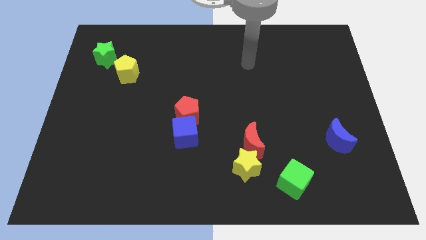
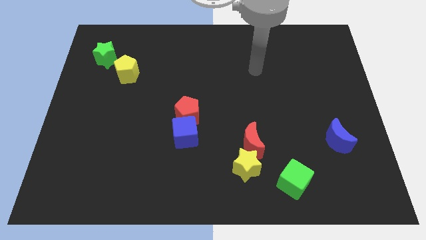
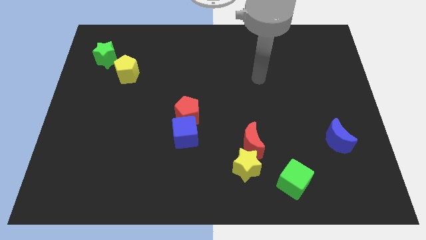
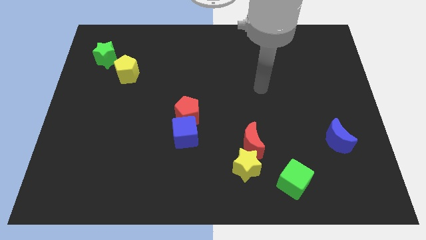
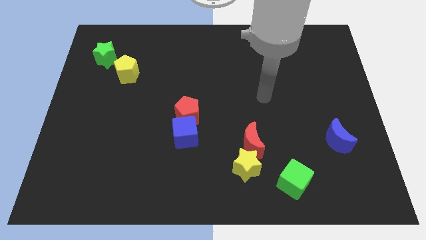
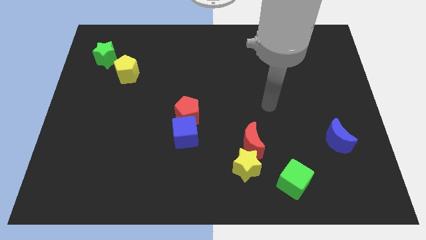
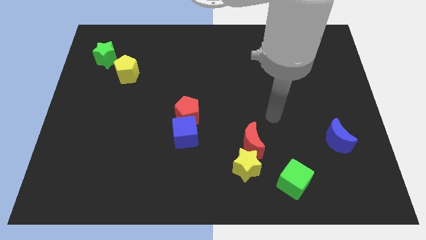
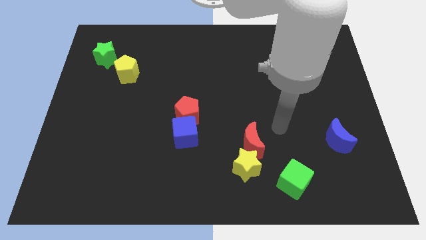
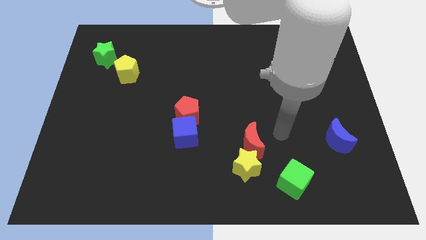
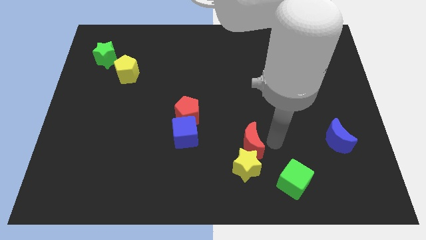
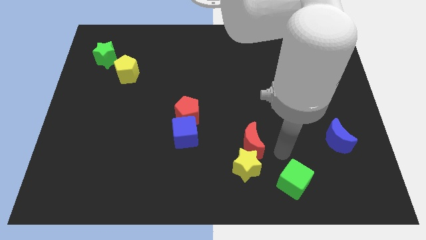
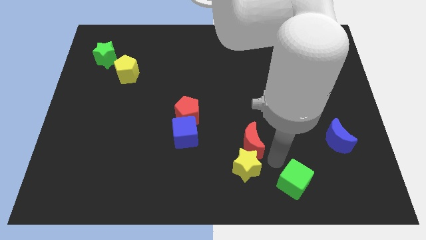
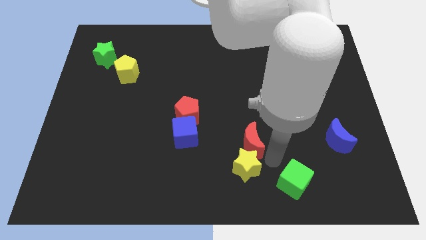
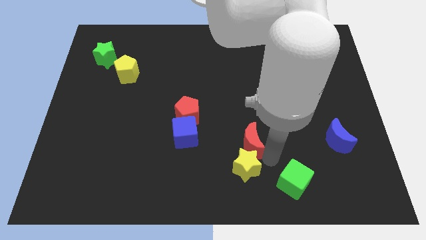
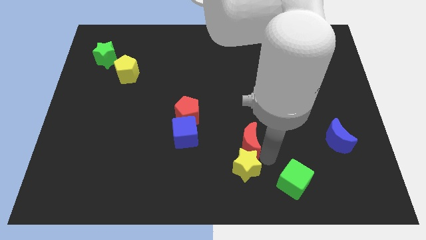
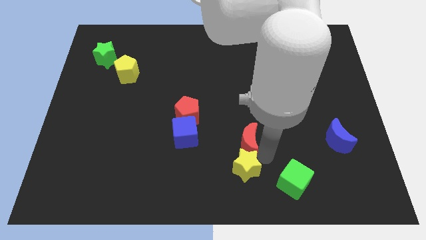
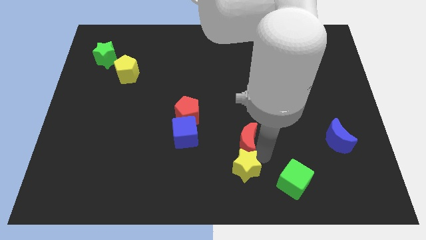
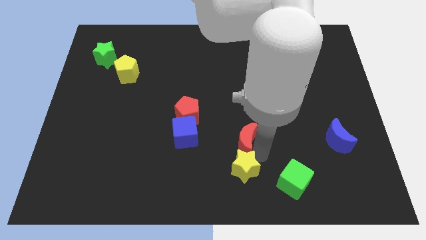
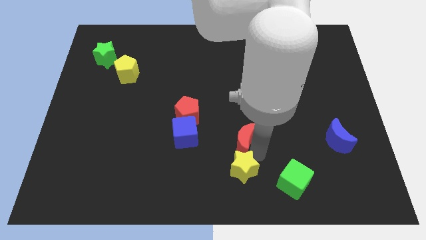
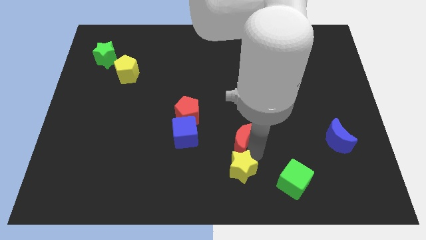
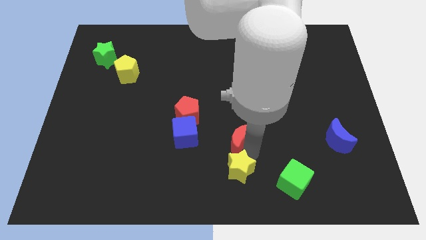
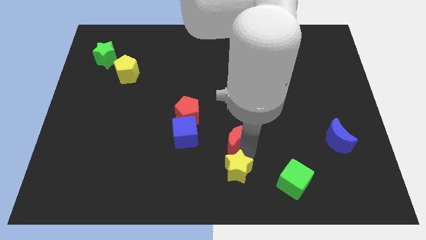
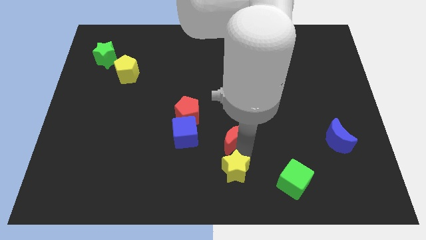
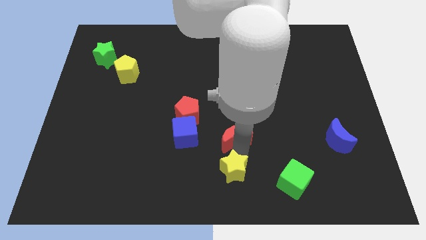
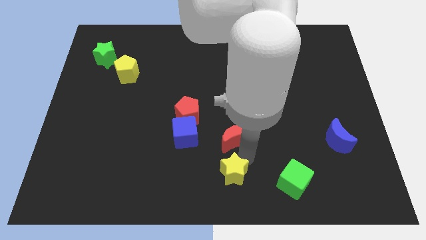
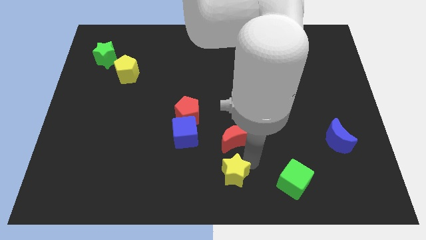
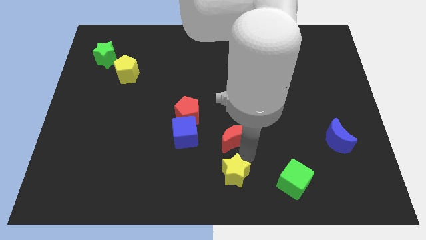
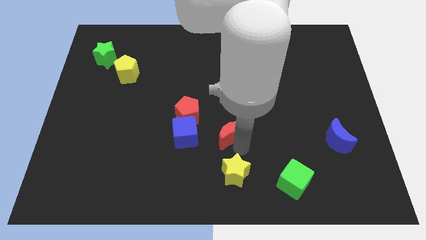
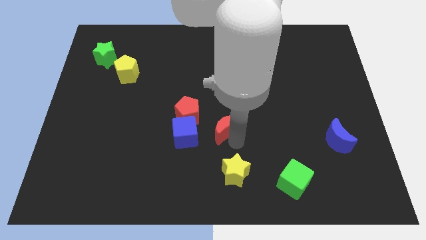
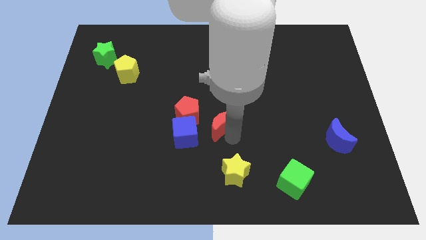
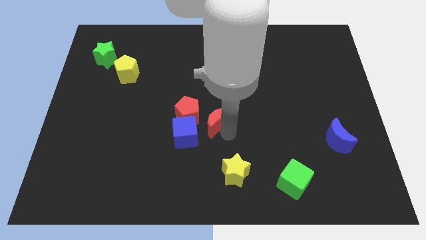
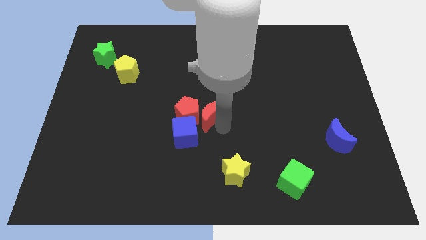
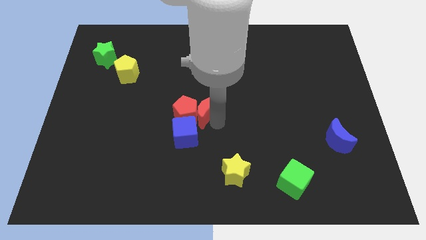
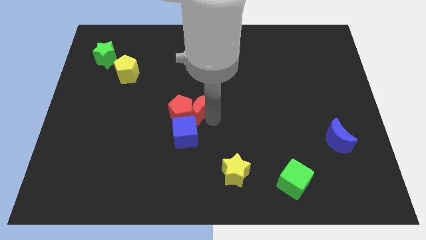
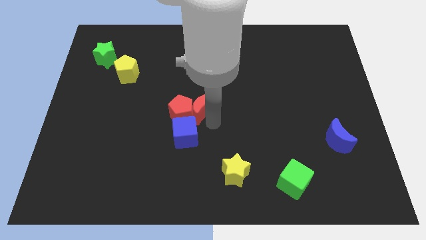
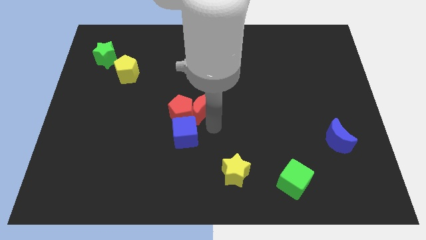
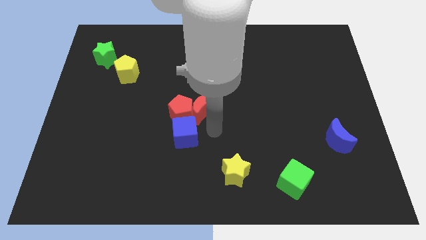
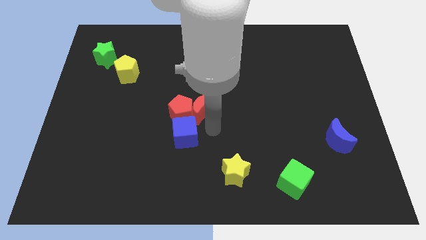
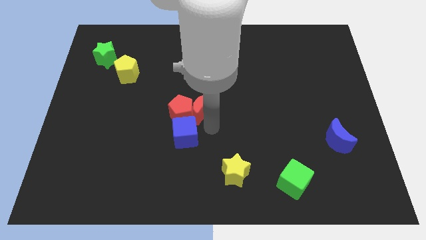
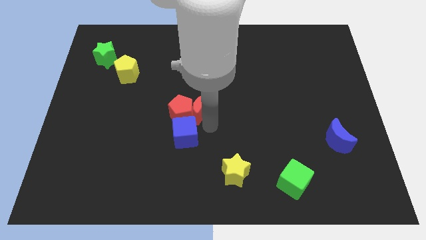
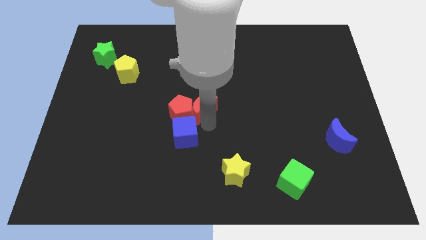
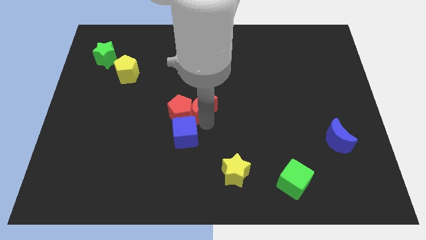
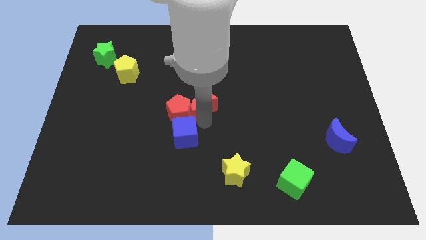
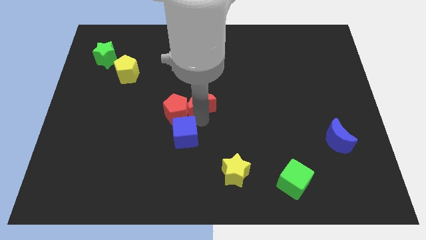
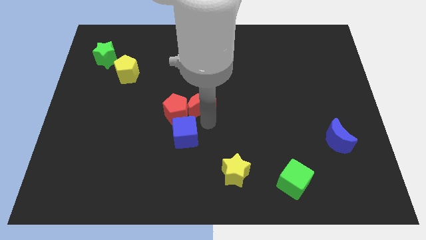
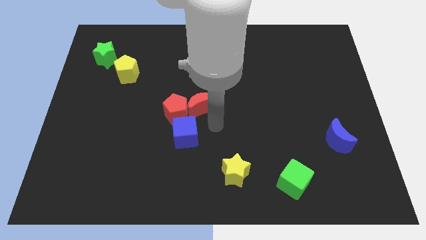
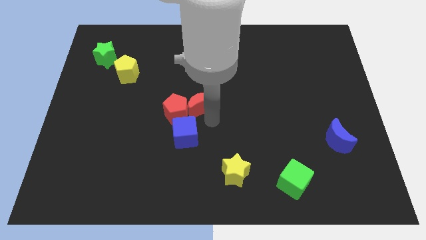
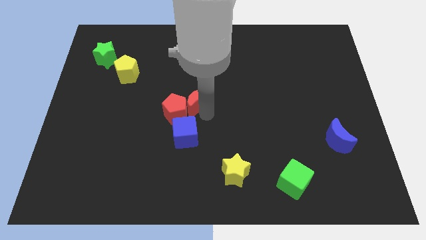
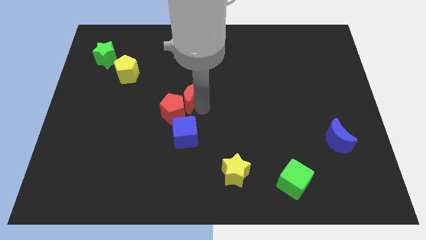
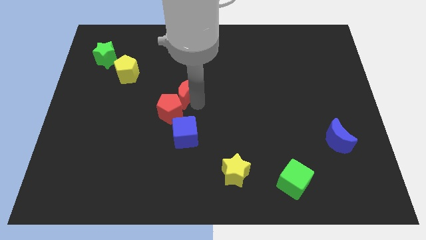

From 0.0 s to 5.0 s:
move the red moon up and to the left diagonally

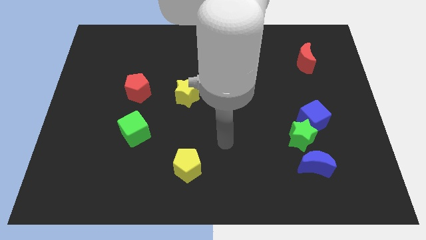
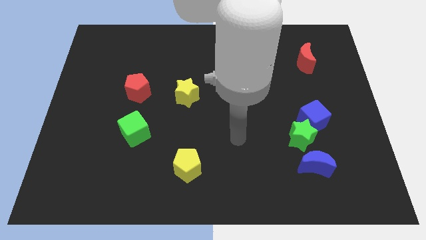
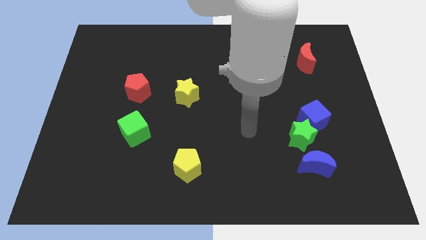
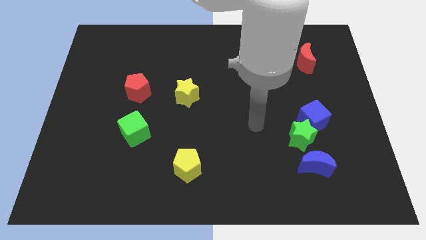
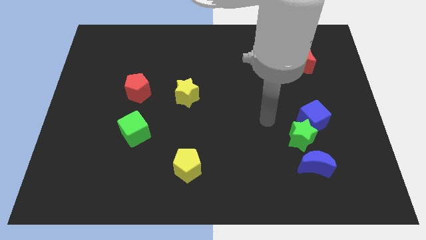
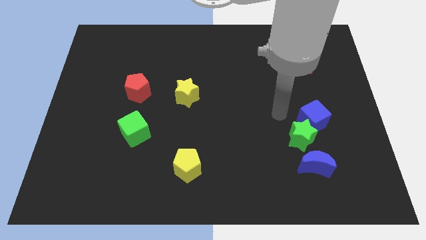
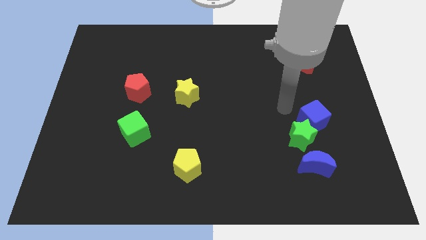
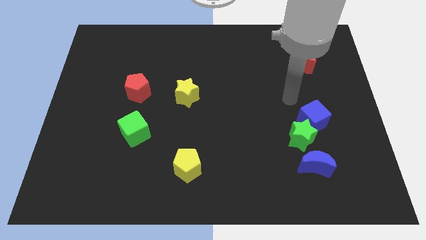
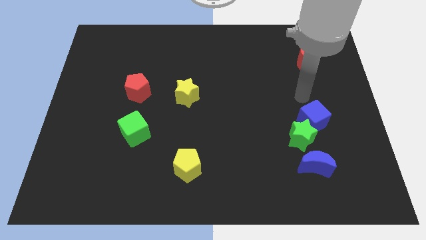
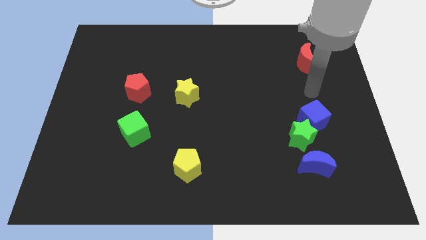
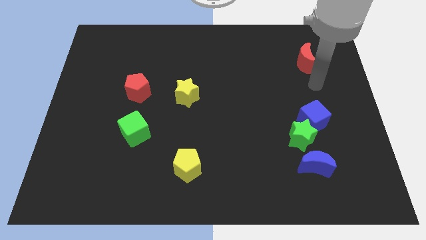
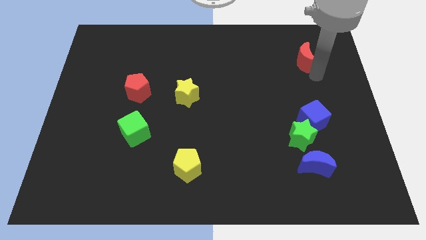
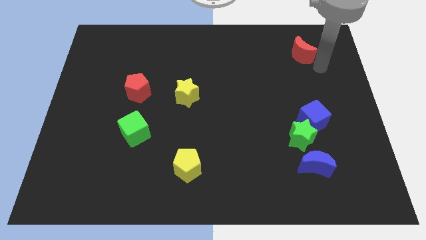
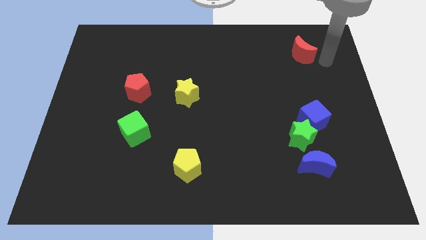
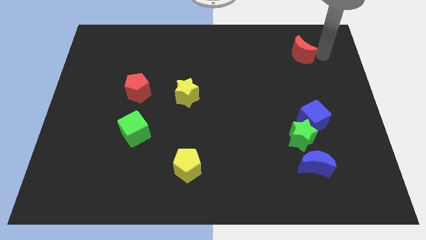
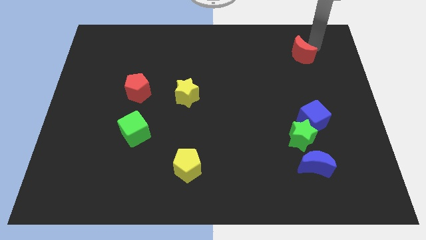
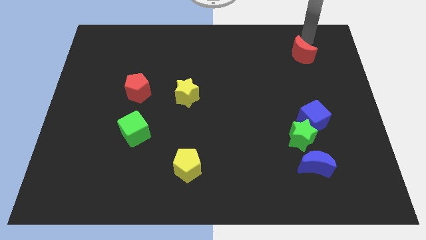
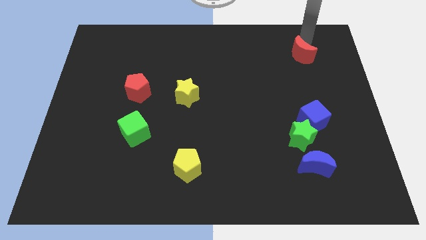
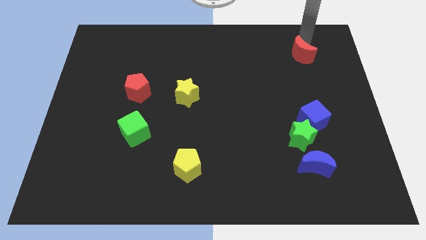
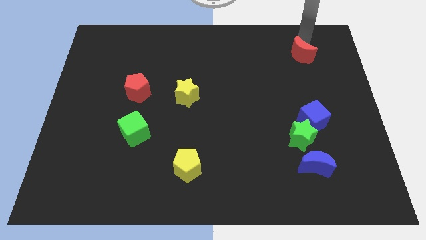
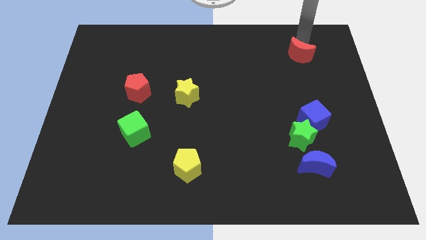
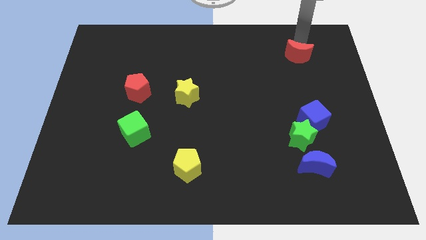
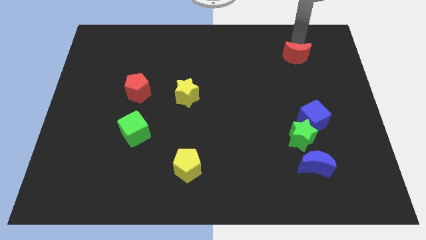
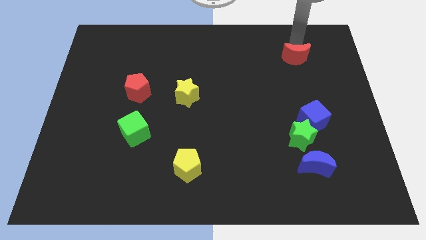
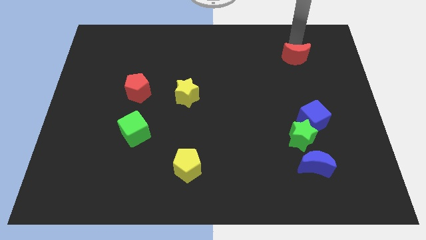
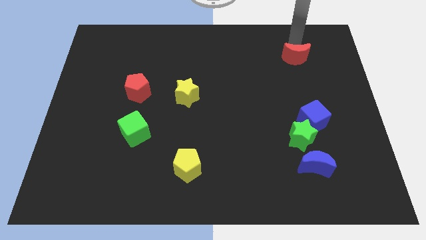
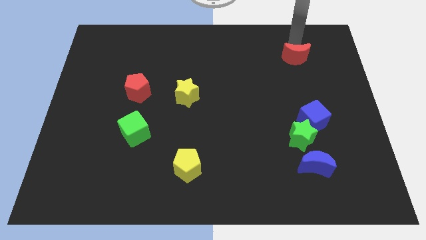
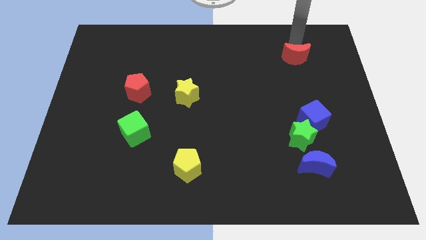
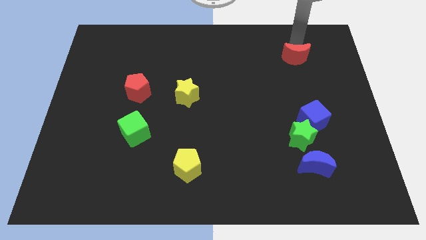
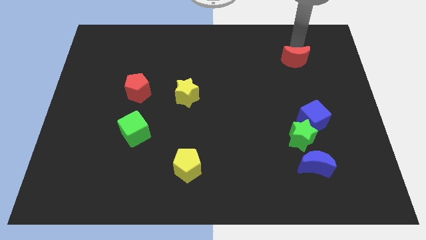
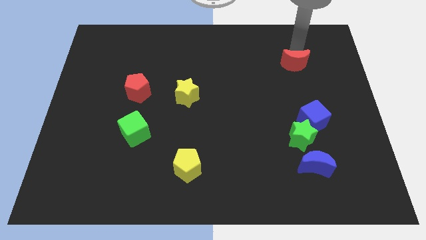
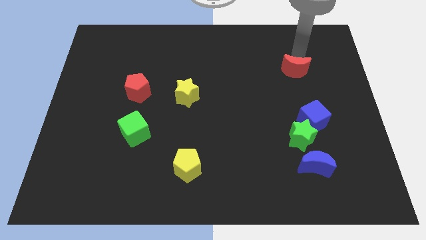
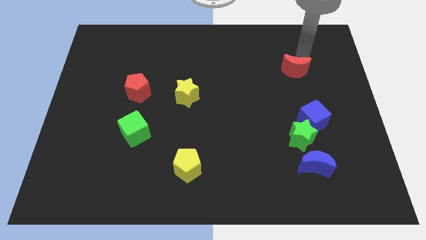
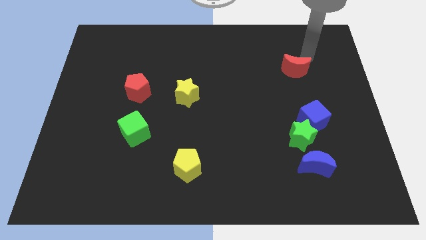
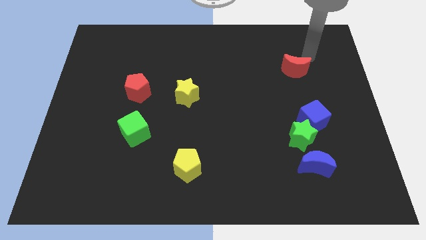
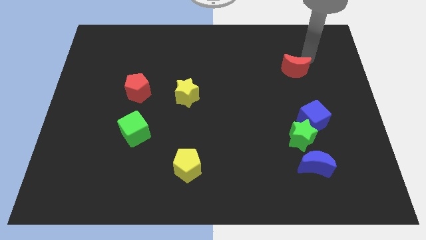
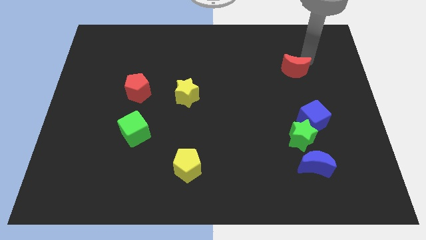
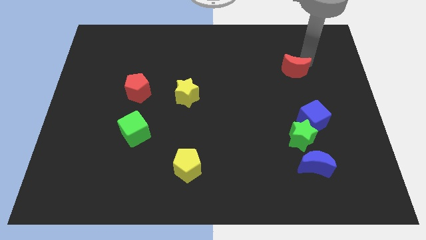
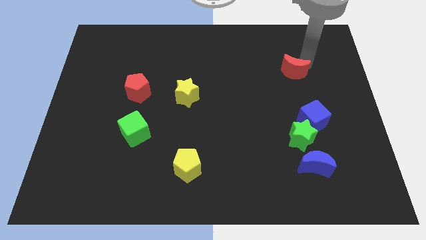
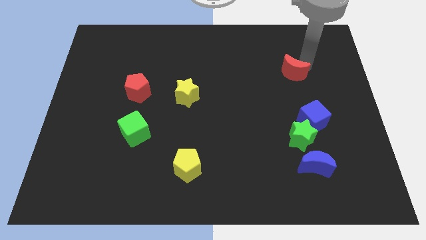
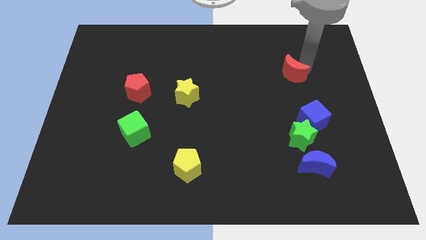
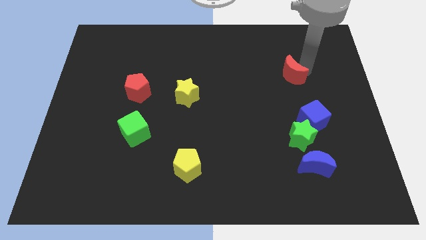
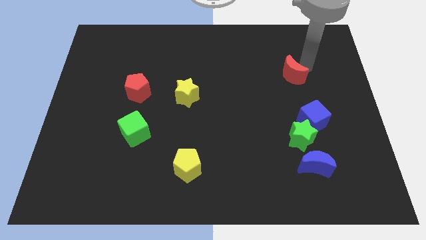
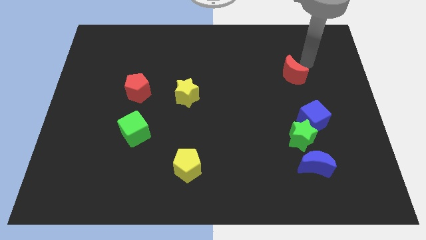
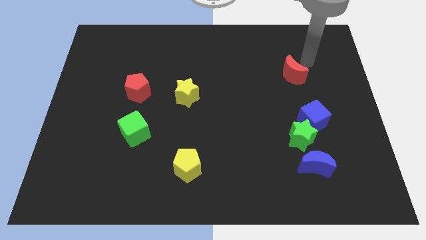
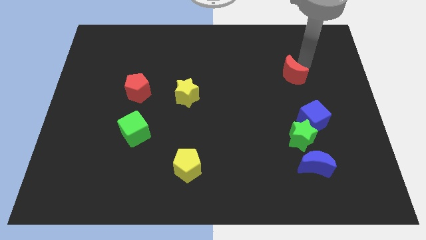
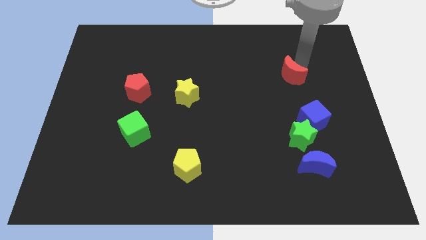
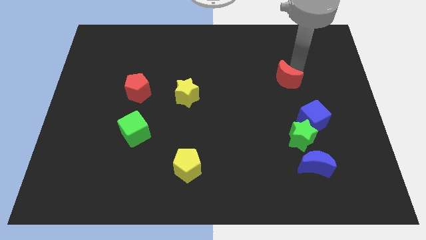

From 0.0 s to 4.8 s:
slide the red moon down and left diagonally a bit
